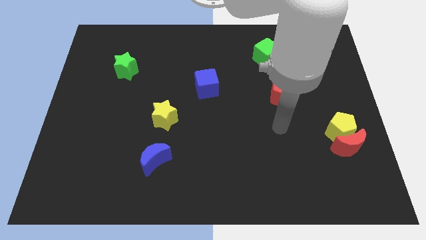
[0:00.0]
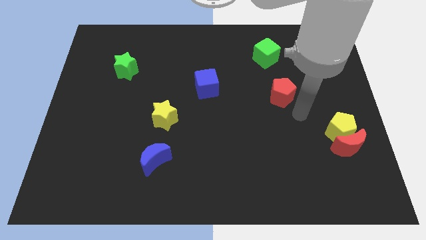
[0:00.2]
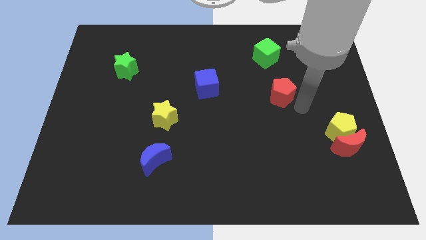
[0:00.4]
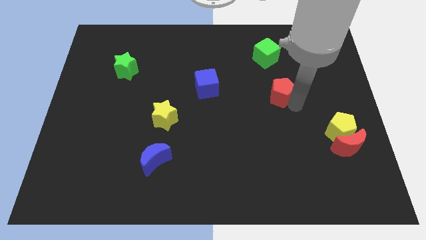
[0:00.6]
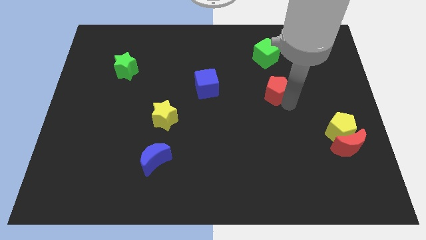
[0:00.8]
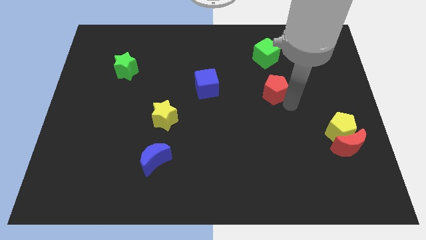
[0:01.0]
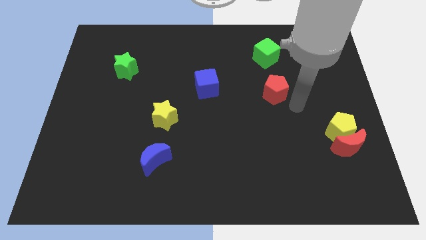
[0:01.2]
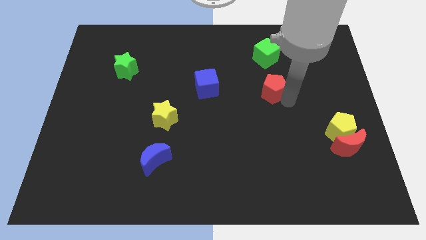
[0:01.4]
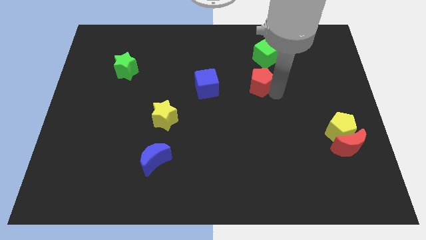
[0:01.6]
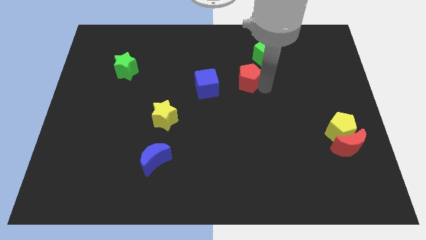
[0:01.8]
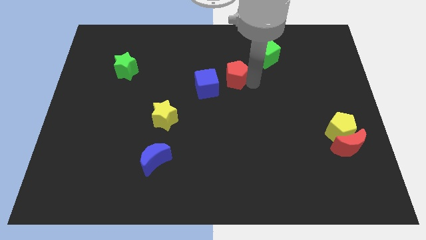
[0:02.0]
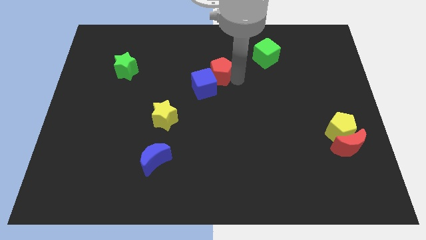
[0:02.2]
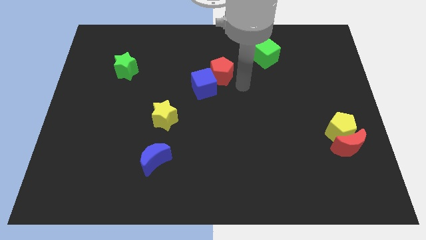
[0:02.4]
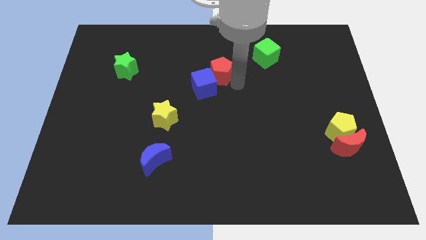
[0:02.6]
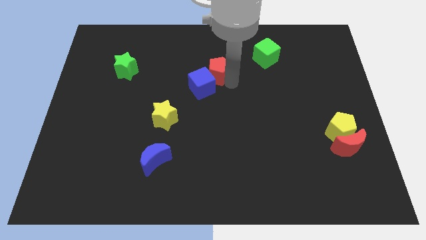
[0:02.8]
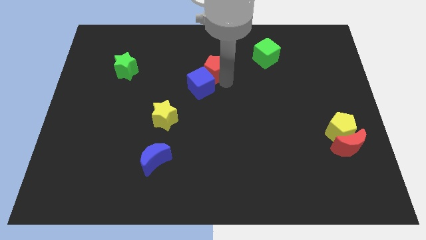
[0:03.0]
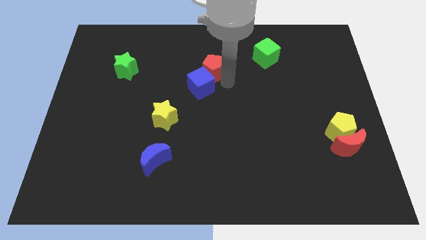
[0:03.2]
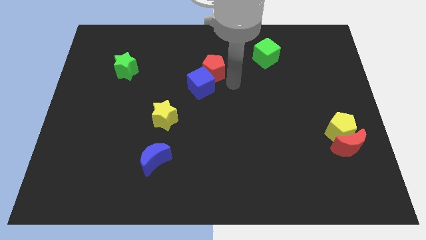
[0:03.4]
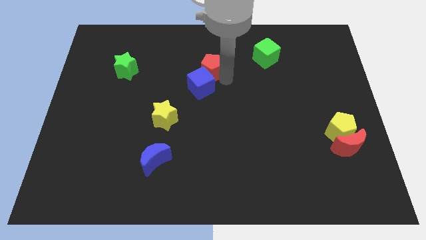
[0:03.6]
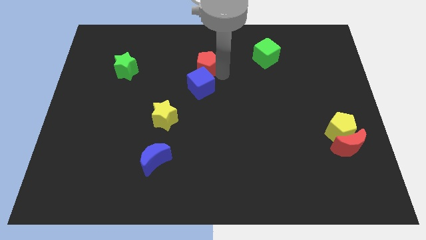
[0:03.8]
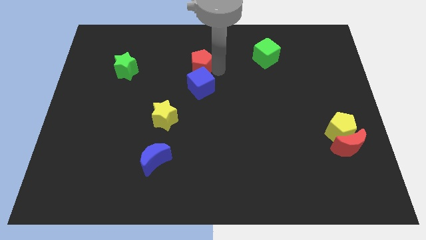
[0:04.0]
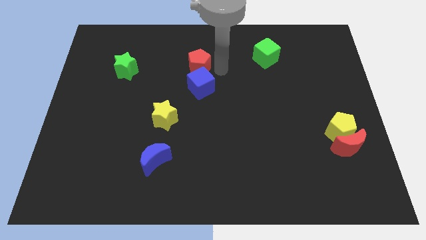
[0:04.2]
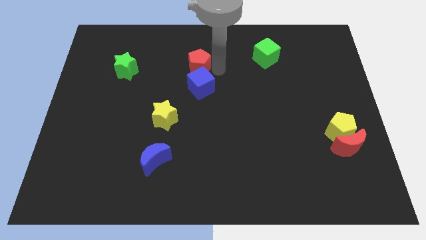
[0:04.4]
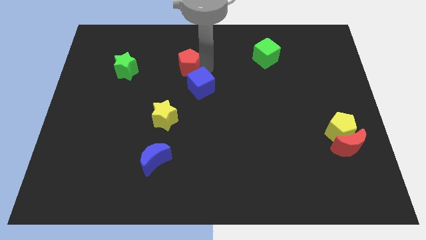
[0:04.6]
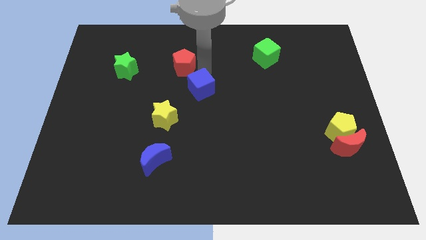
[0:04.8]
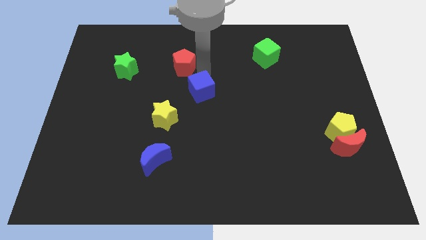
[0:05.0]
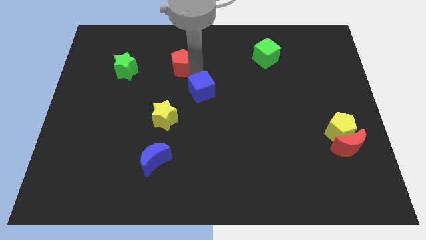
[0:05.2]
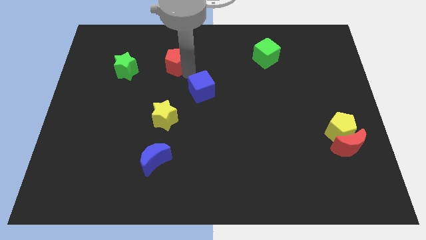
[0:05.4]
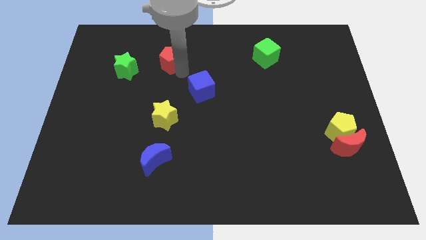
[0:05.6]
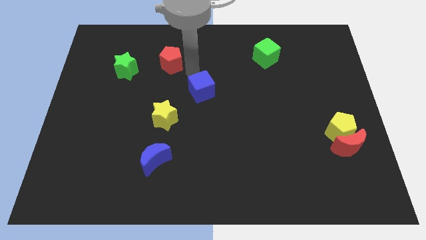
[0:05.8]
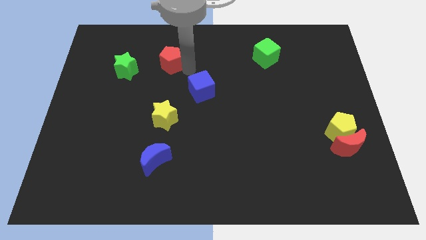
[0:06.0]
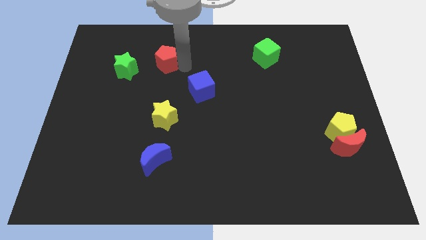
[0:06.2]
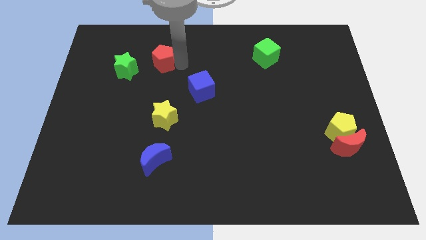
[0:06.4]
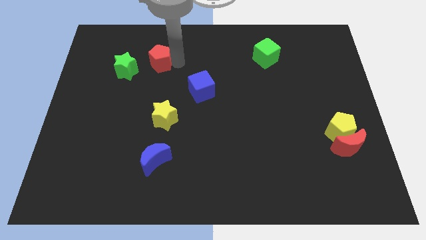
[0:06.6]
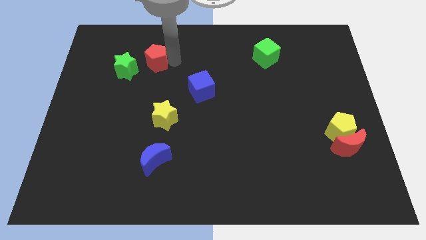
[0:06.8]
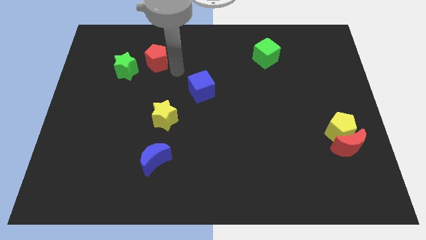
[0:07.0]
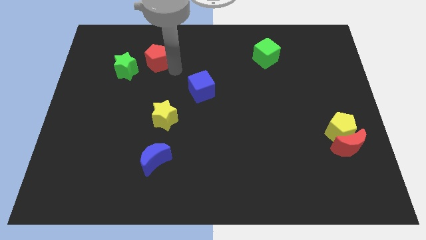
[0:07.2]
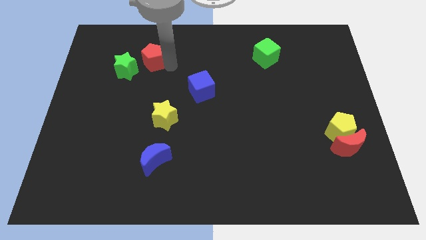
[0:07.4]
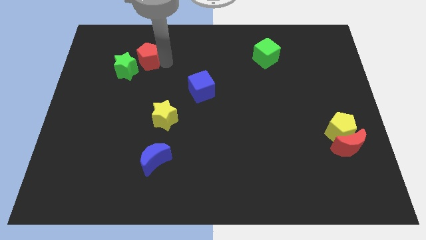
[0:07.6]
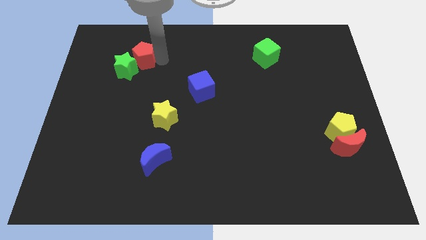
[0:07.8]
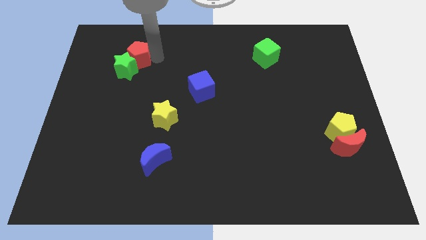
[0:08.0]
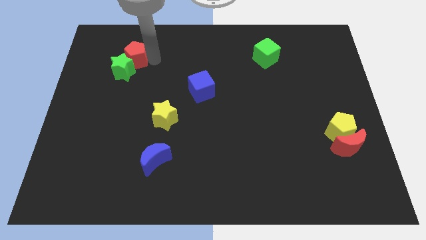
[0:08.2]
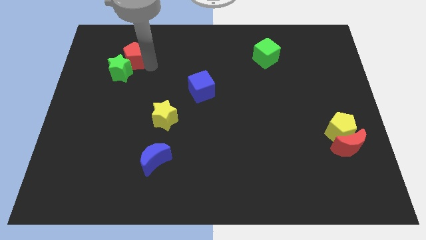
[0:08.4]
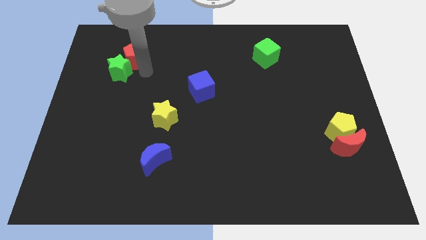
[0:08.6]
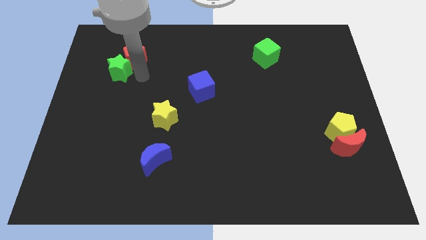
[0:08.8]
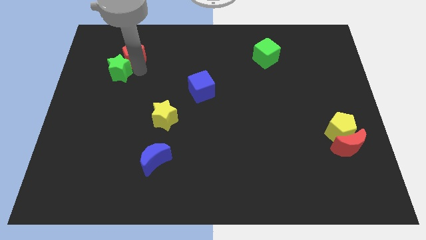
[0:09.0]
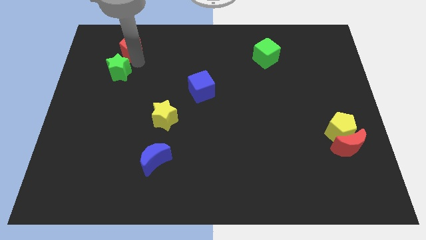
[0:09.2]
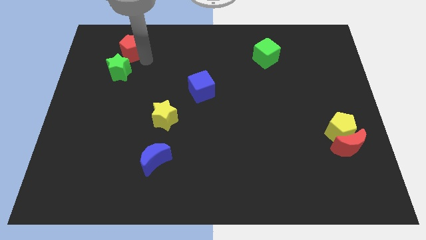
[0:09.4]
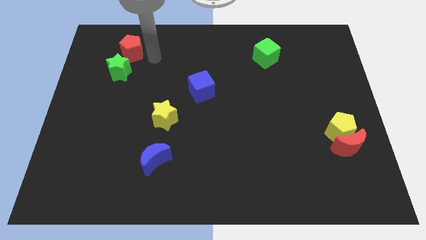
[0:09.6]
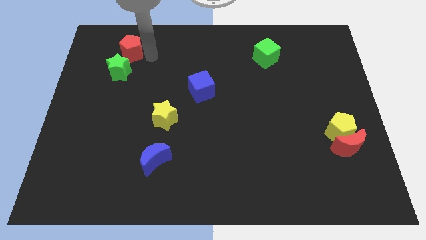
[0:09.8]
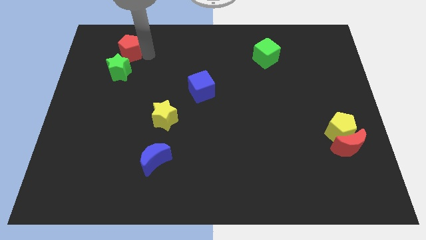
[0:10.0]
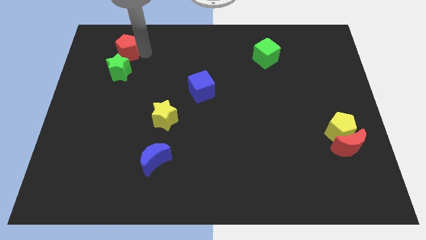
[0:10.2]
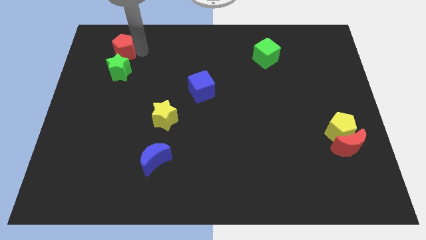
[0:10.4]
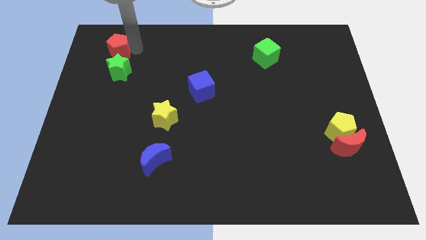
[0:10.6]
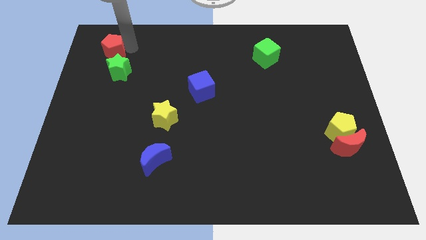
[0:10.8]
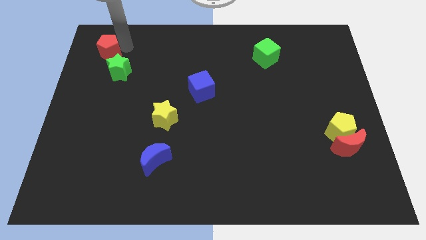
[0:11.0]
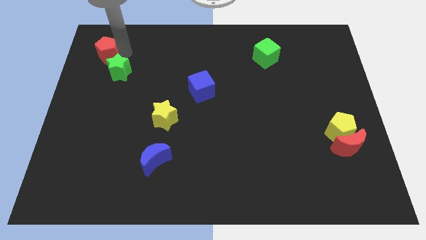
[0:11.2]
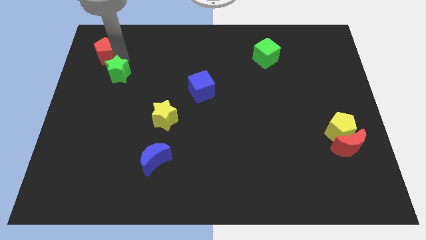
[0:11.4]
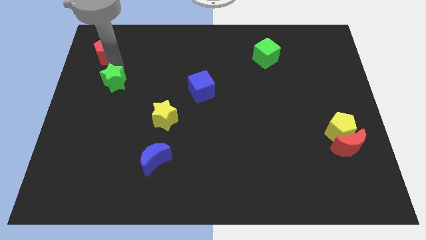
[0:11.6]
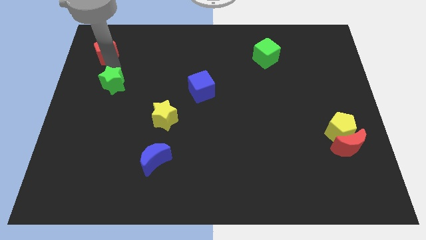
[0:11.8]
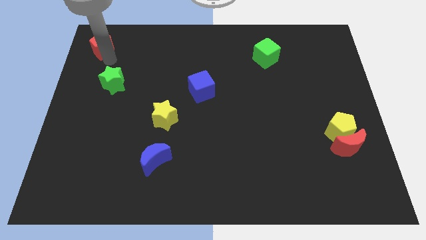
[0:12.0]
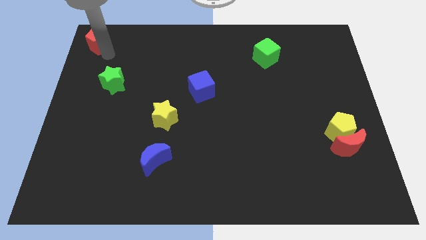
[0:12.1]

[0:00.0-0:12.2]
put the red pentagon to the top left corner

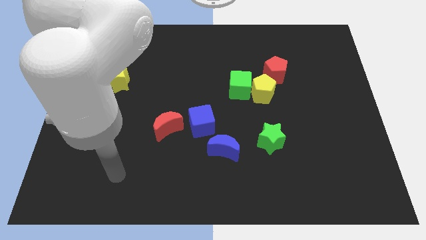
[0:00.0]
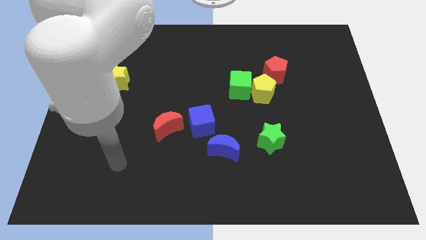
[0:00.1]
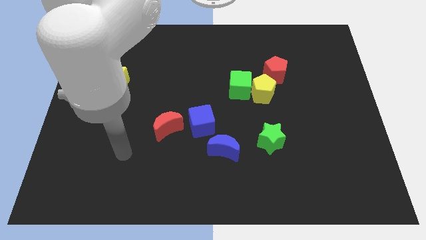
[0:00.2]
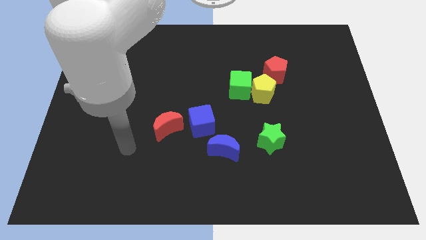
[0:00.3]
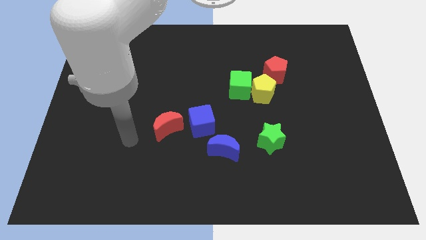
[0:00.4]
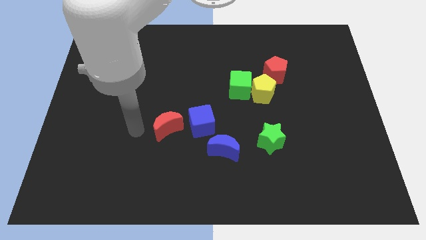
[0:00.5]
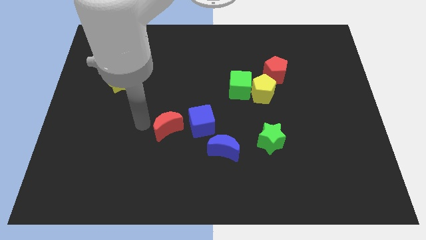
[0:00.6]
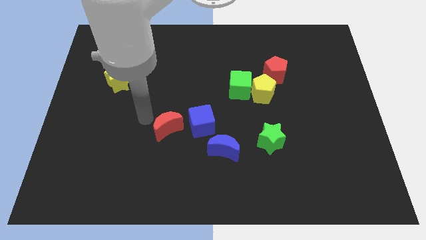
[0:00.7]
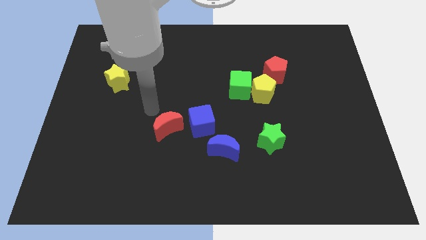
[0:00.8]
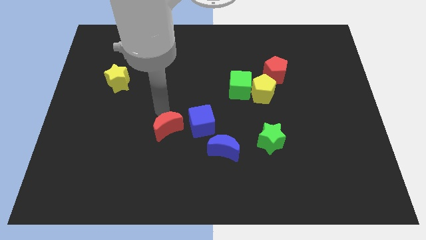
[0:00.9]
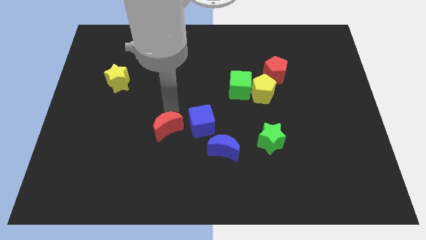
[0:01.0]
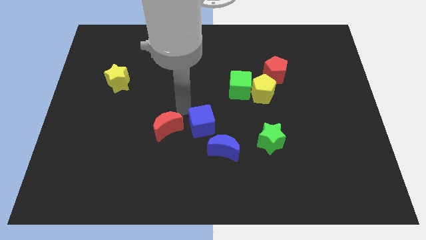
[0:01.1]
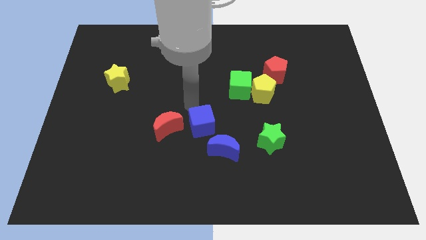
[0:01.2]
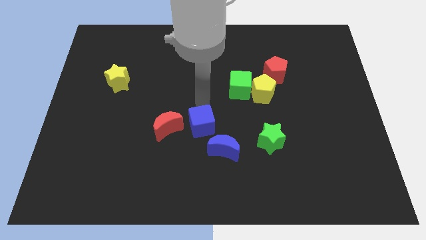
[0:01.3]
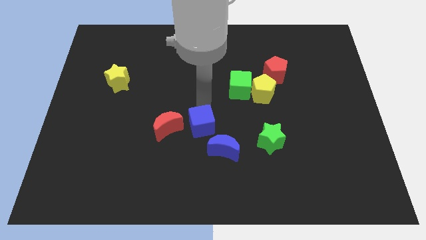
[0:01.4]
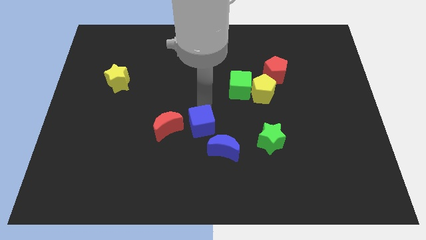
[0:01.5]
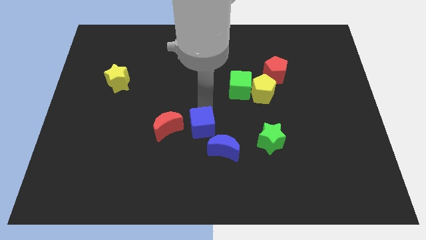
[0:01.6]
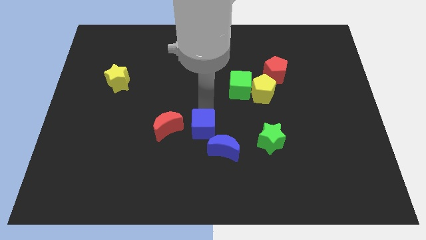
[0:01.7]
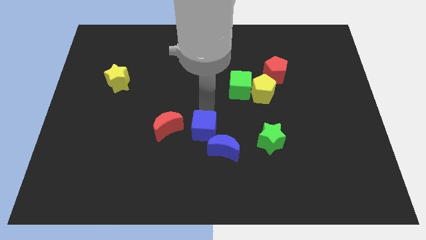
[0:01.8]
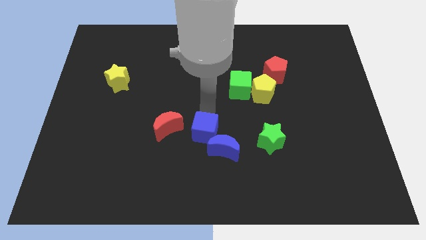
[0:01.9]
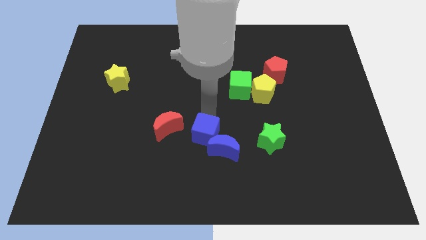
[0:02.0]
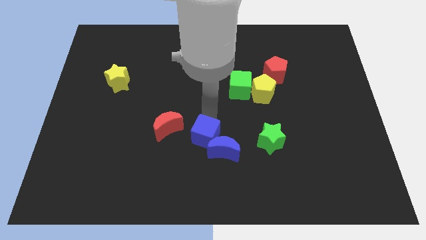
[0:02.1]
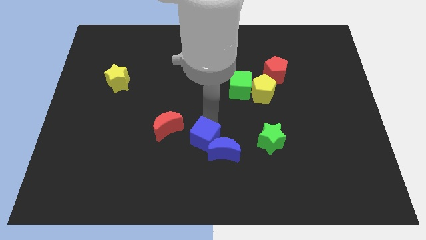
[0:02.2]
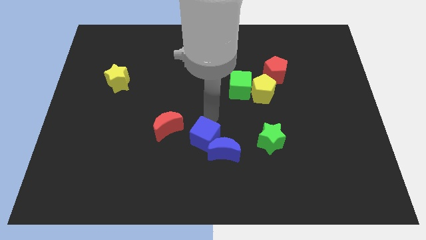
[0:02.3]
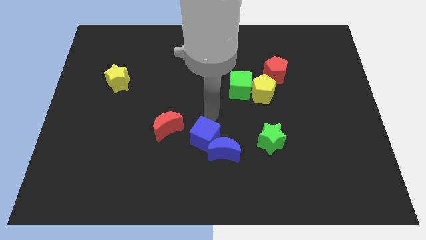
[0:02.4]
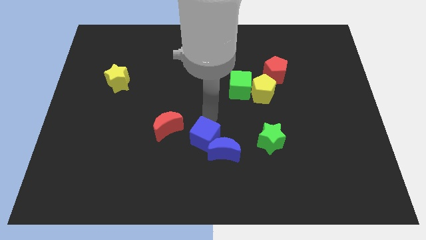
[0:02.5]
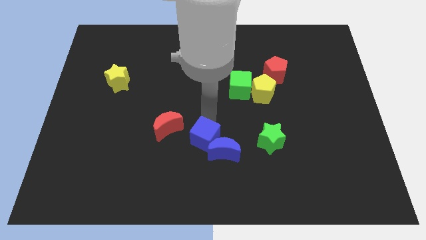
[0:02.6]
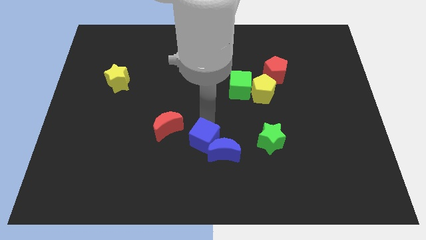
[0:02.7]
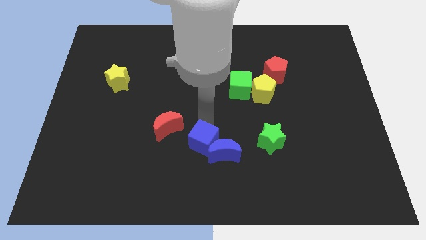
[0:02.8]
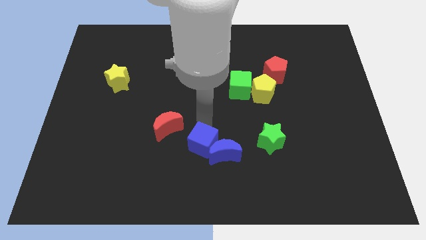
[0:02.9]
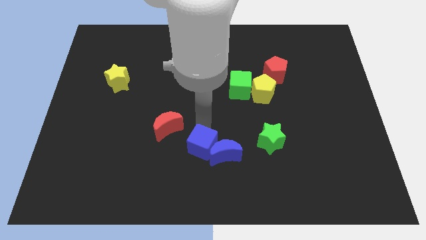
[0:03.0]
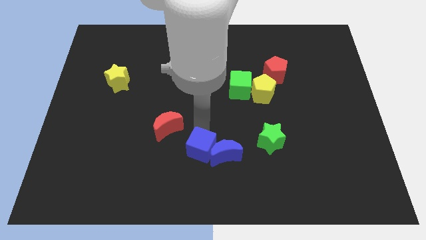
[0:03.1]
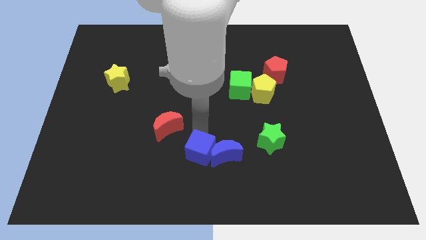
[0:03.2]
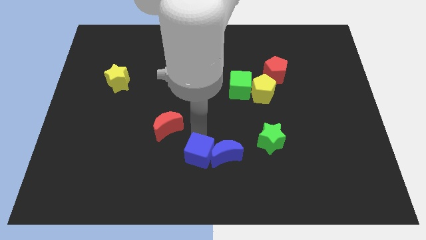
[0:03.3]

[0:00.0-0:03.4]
put the blue cube to the bottom side
